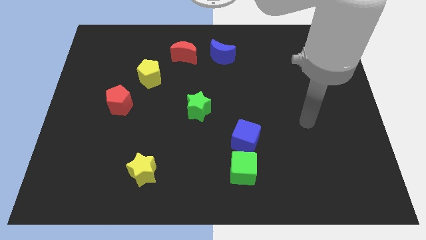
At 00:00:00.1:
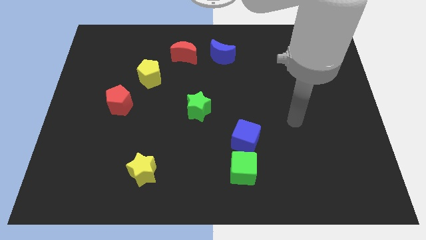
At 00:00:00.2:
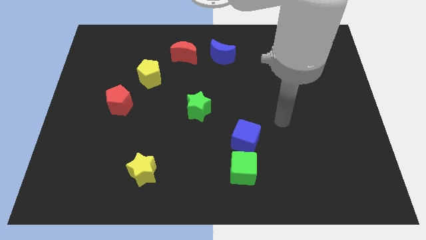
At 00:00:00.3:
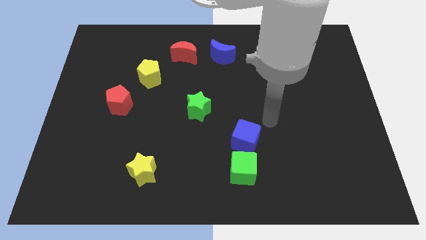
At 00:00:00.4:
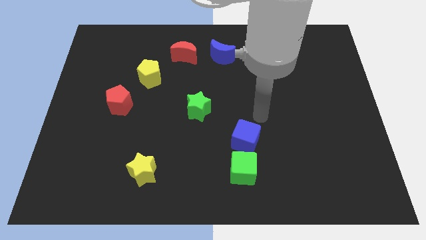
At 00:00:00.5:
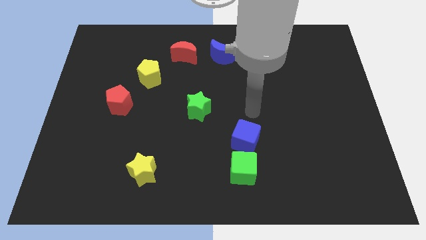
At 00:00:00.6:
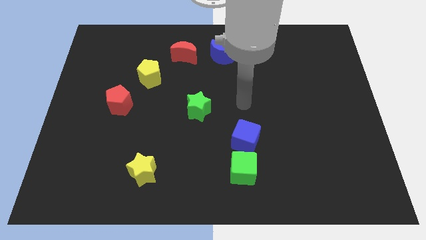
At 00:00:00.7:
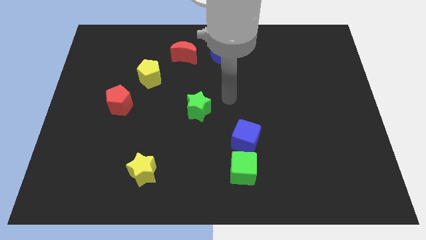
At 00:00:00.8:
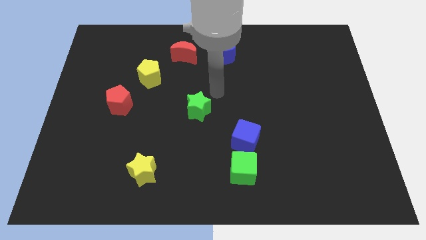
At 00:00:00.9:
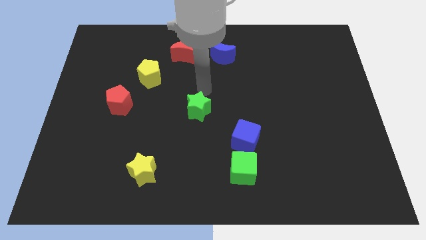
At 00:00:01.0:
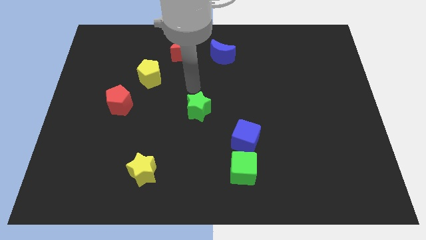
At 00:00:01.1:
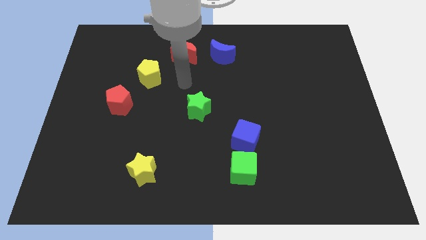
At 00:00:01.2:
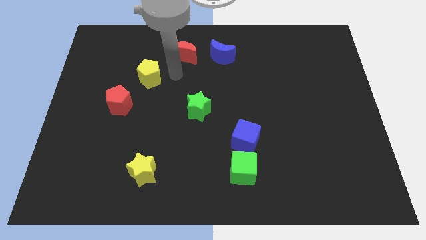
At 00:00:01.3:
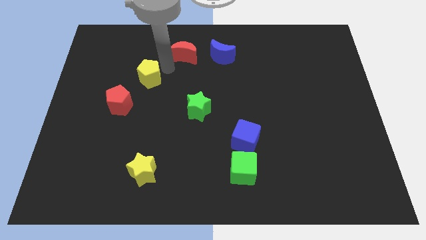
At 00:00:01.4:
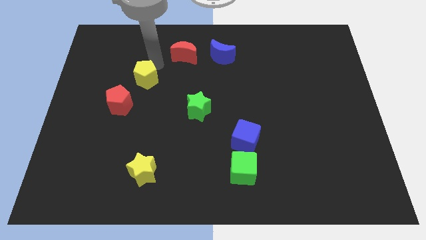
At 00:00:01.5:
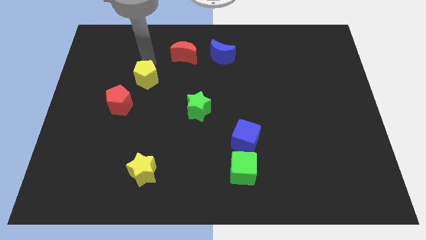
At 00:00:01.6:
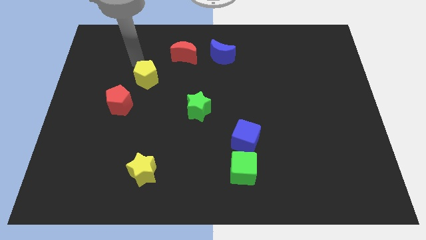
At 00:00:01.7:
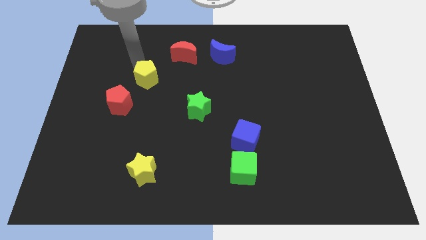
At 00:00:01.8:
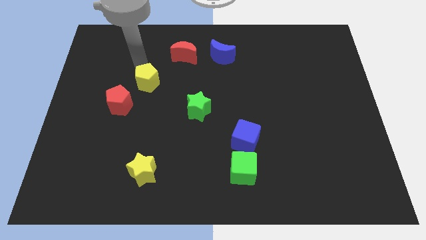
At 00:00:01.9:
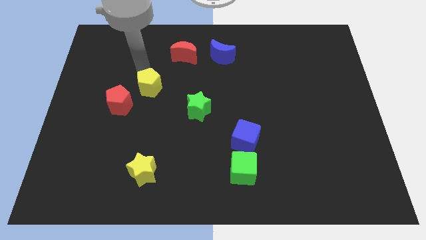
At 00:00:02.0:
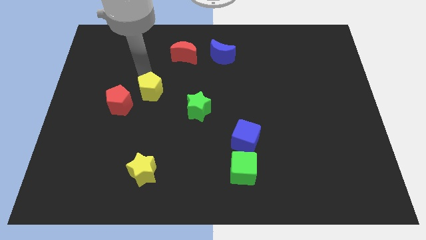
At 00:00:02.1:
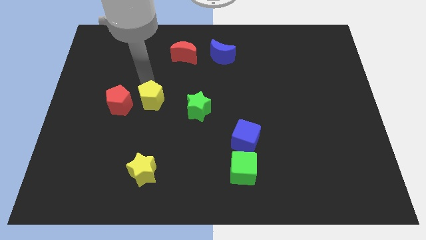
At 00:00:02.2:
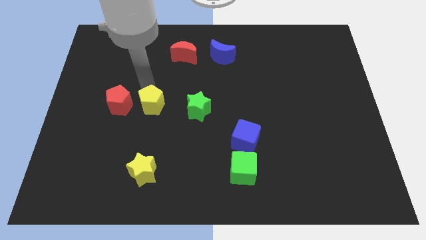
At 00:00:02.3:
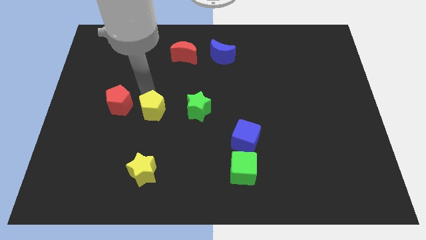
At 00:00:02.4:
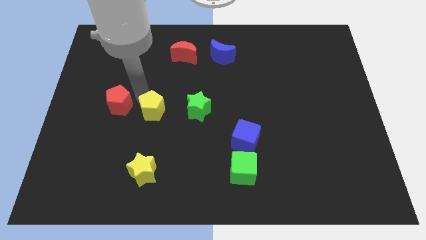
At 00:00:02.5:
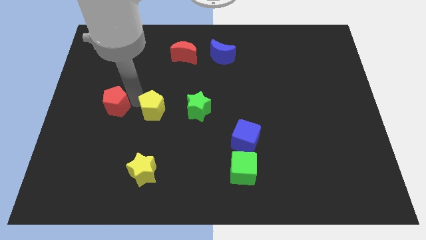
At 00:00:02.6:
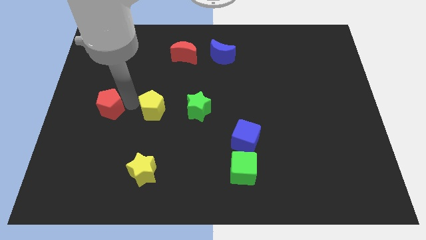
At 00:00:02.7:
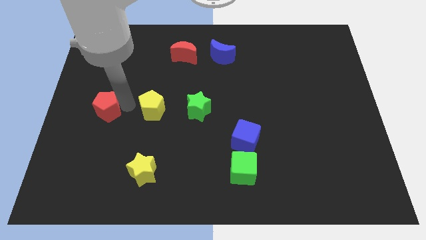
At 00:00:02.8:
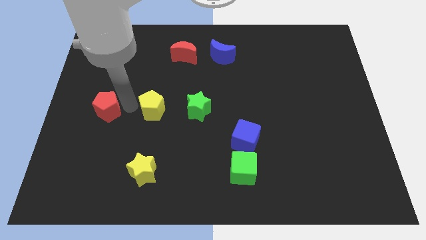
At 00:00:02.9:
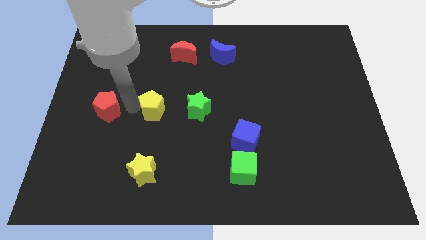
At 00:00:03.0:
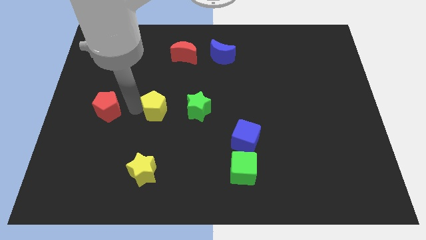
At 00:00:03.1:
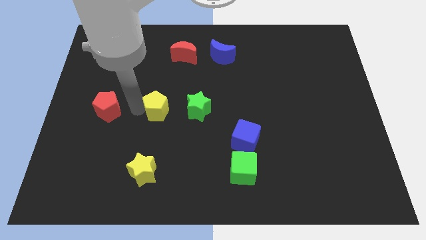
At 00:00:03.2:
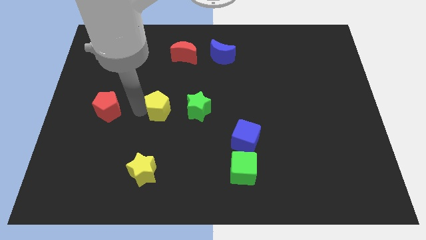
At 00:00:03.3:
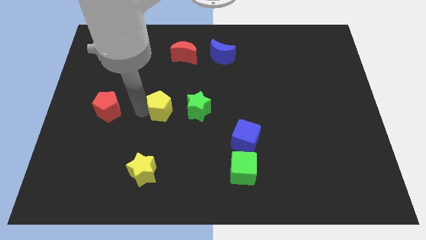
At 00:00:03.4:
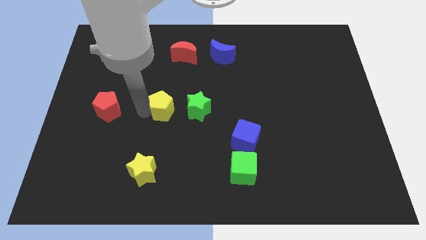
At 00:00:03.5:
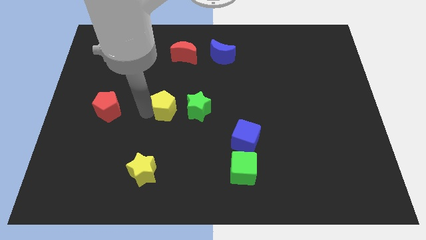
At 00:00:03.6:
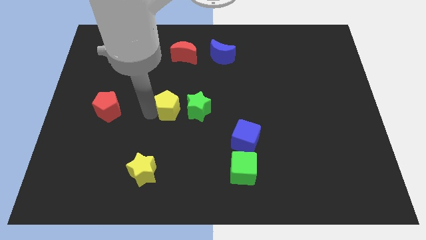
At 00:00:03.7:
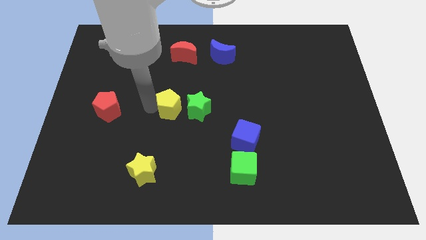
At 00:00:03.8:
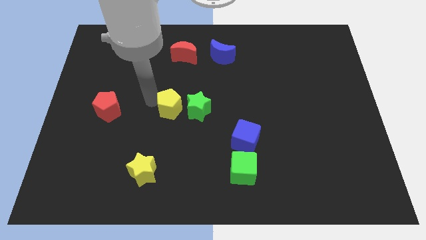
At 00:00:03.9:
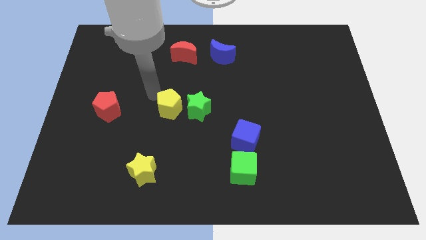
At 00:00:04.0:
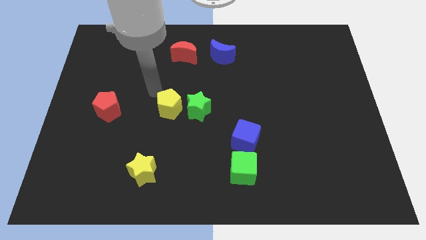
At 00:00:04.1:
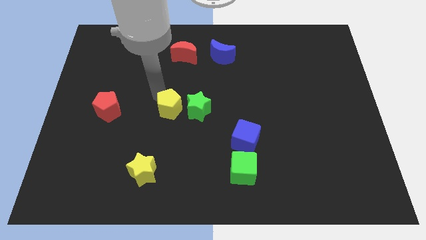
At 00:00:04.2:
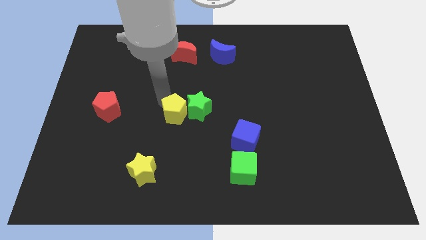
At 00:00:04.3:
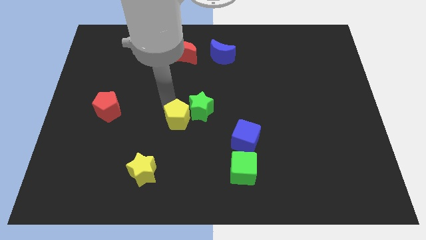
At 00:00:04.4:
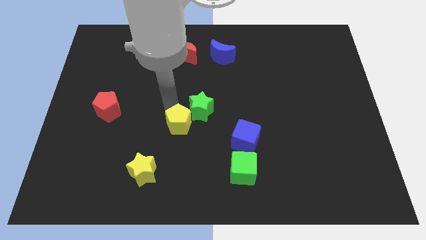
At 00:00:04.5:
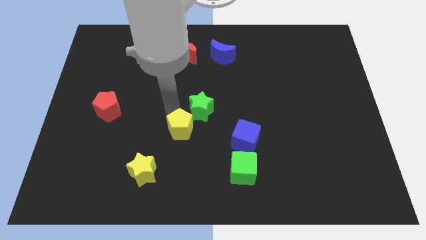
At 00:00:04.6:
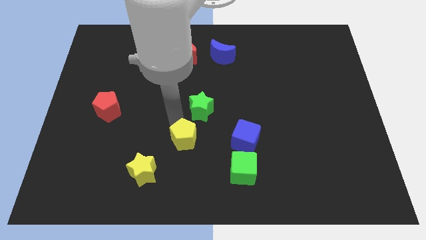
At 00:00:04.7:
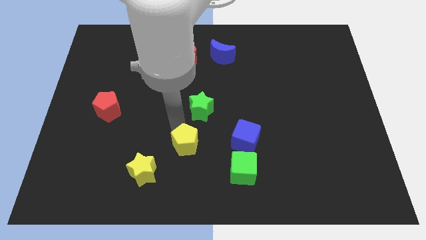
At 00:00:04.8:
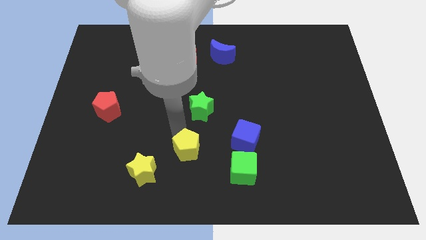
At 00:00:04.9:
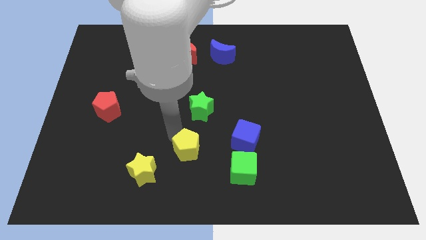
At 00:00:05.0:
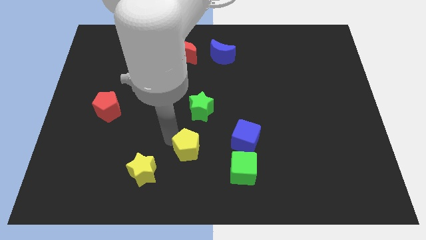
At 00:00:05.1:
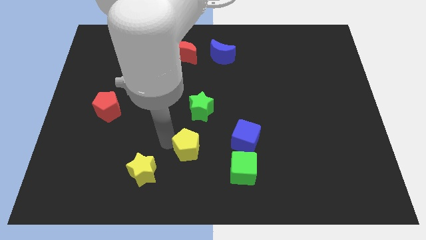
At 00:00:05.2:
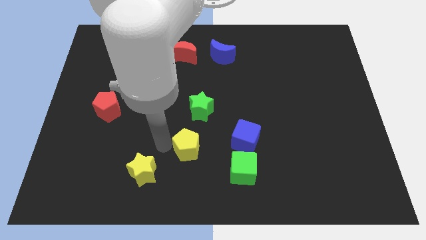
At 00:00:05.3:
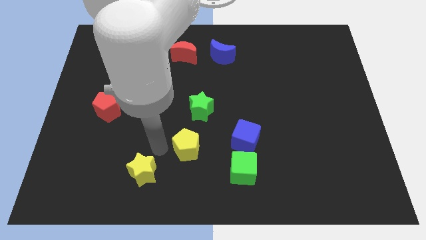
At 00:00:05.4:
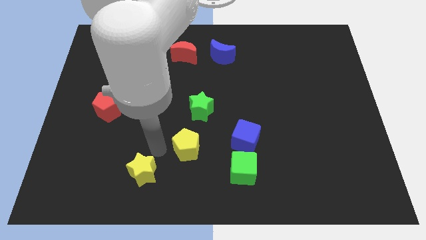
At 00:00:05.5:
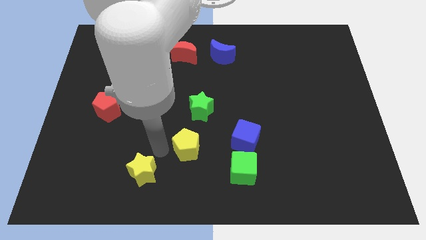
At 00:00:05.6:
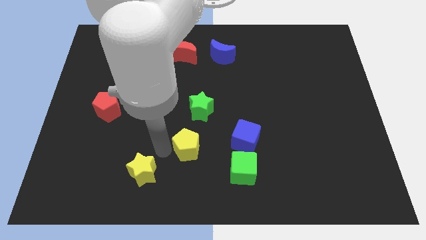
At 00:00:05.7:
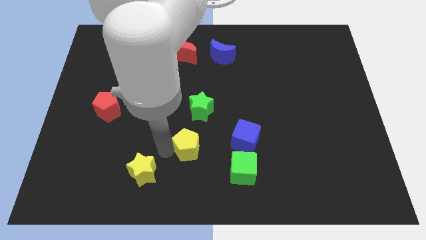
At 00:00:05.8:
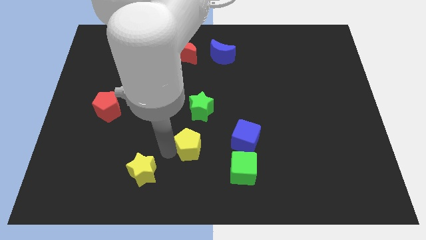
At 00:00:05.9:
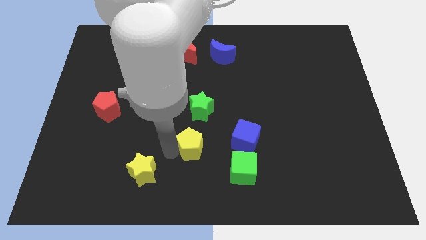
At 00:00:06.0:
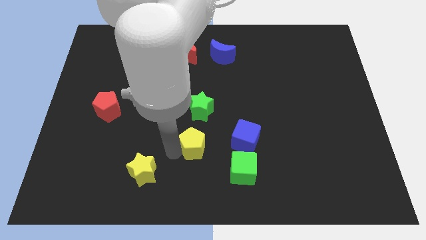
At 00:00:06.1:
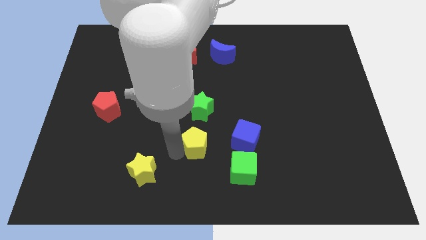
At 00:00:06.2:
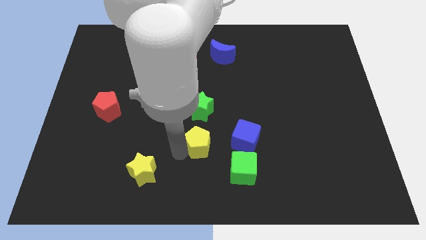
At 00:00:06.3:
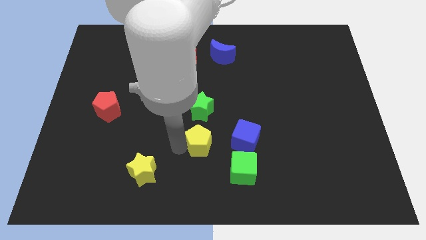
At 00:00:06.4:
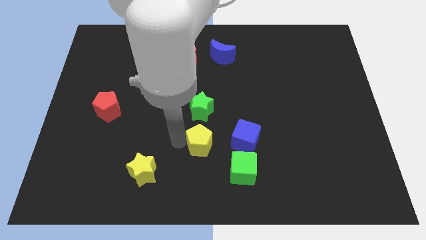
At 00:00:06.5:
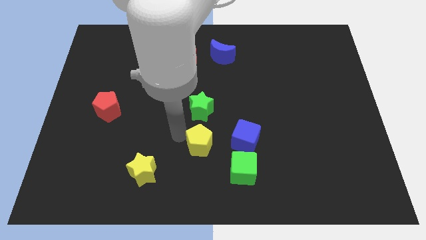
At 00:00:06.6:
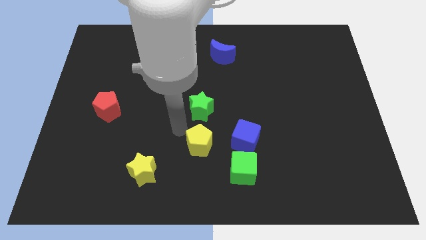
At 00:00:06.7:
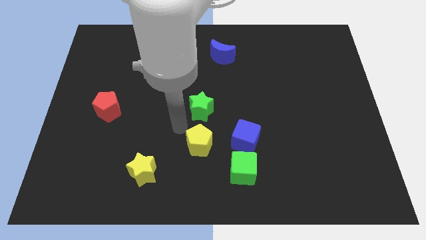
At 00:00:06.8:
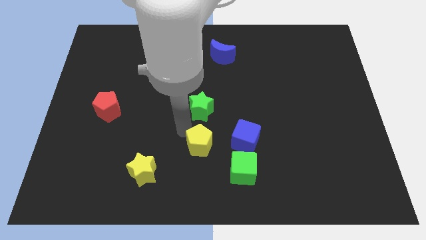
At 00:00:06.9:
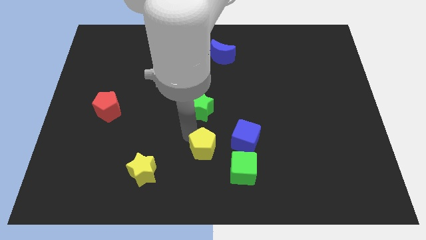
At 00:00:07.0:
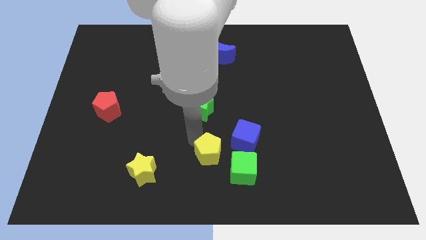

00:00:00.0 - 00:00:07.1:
push the yellow pentagon to the bottom left side of the blue cube
